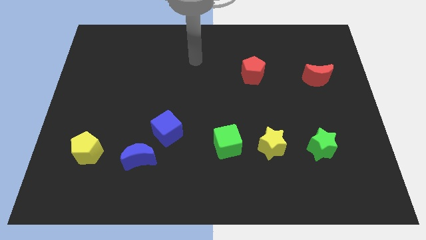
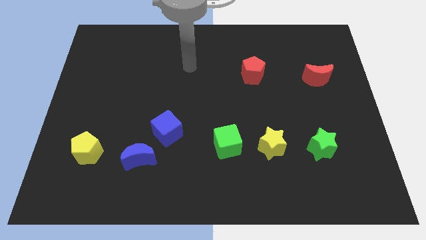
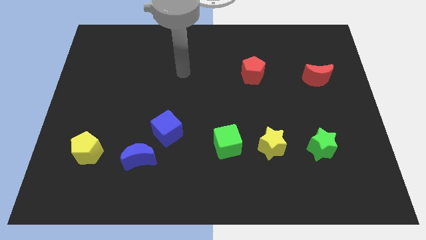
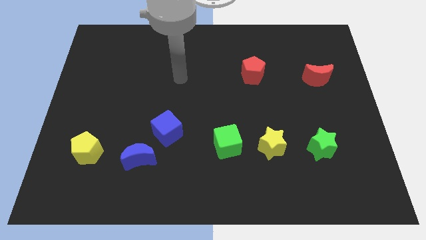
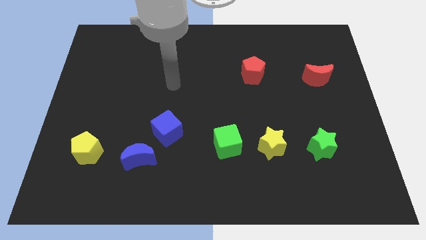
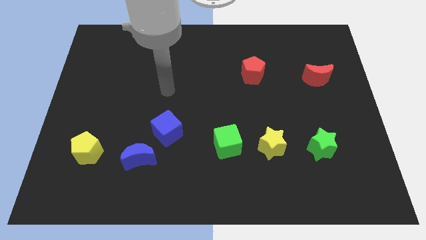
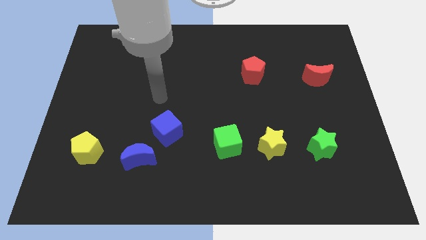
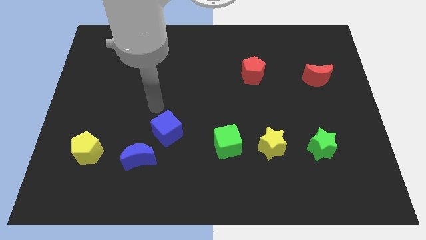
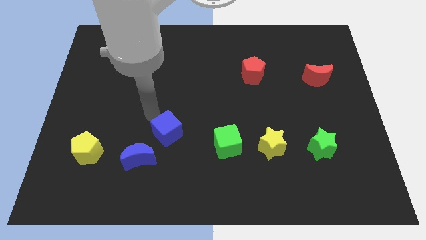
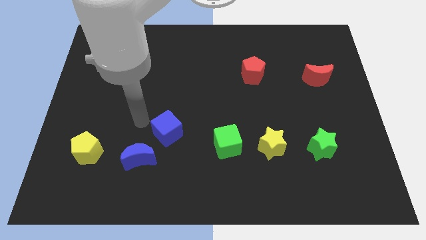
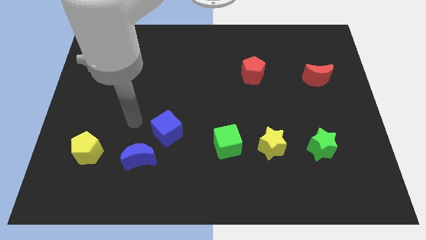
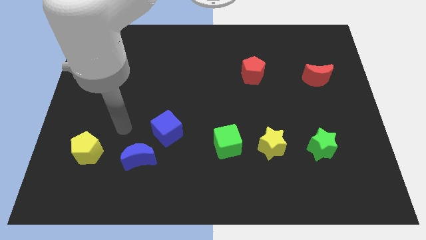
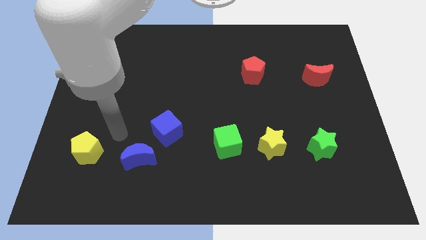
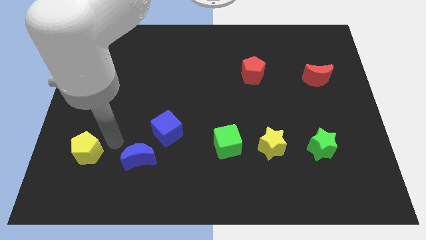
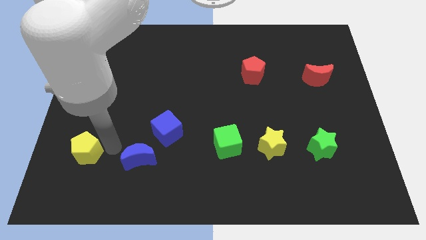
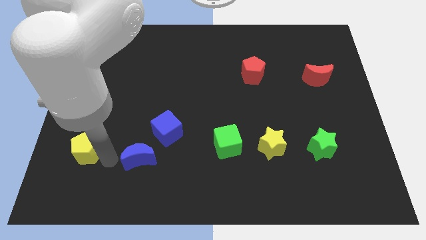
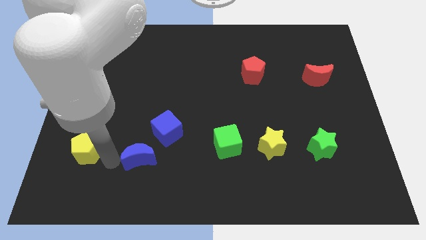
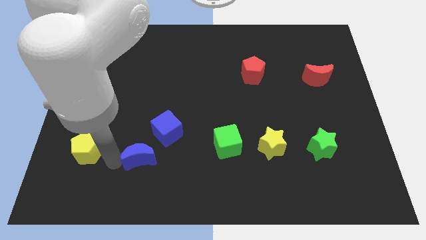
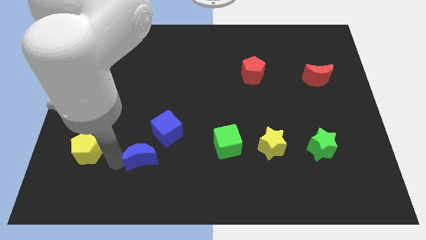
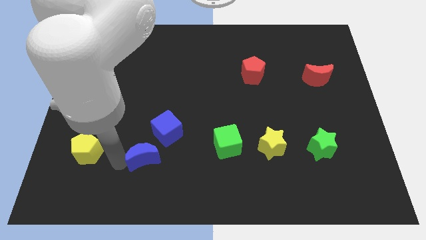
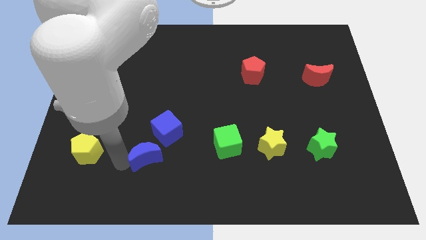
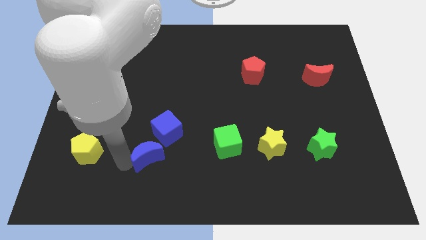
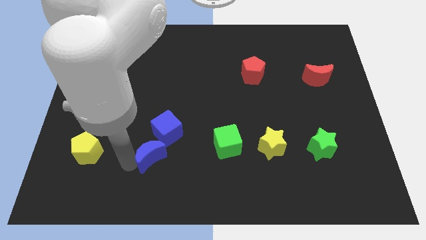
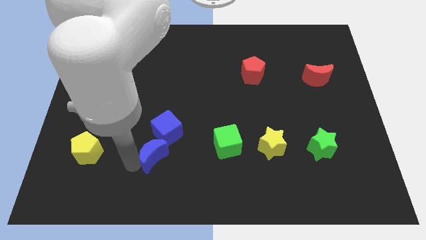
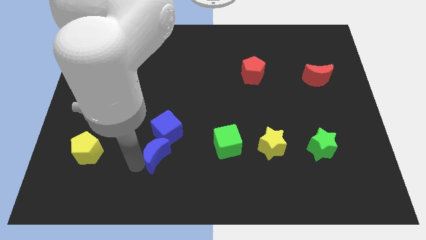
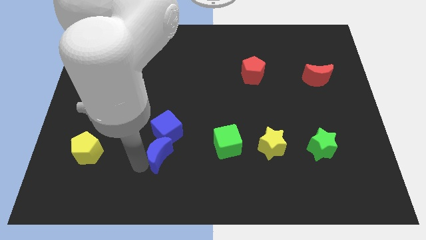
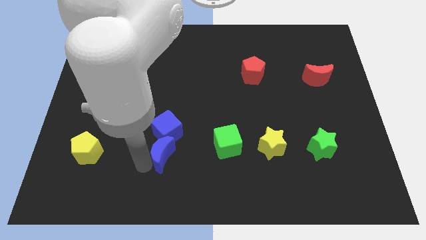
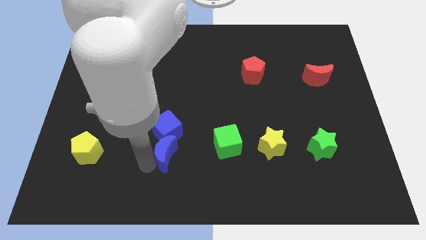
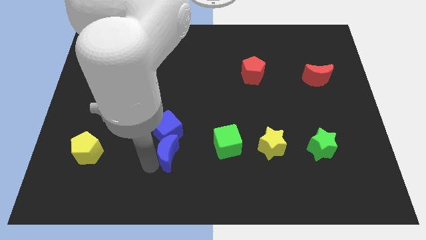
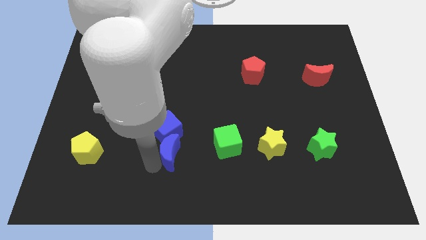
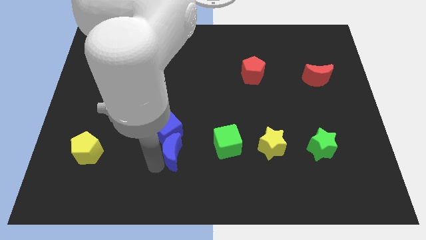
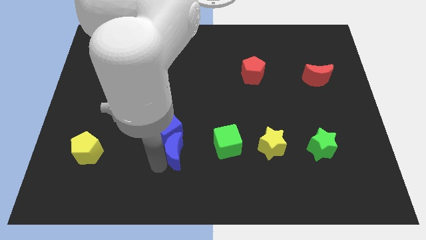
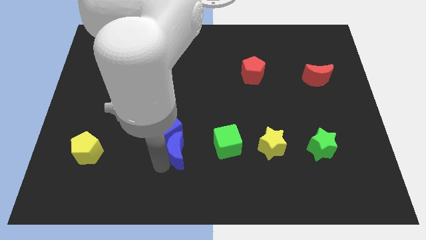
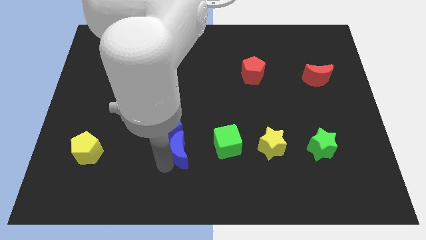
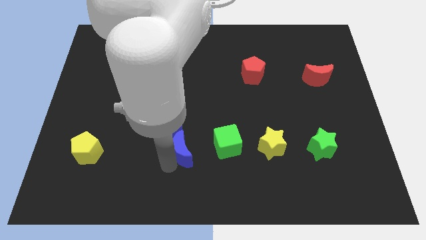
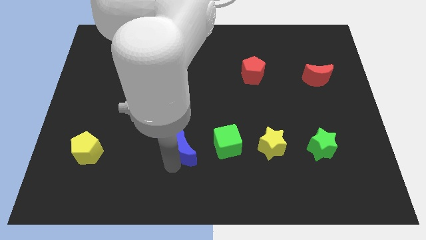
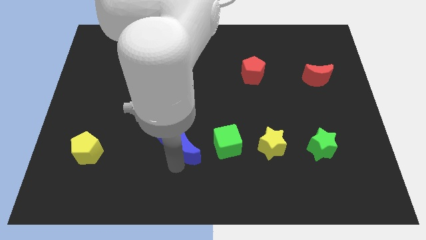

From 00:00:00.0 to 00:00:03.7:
slightly slide the blue moon diagonally upwards and right

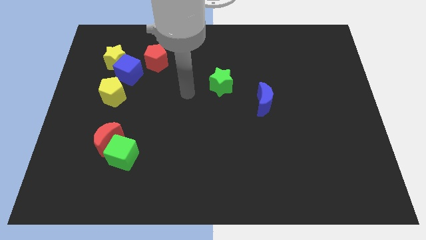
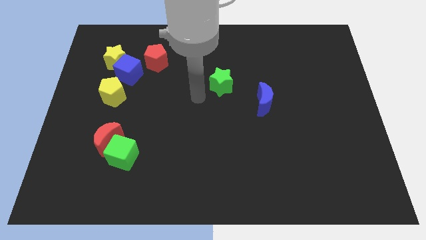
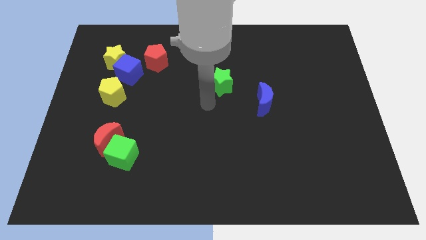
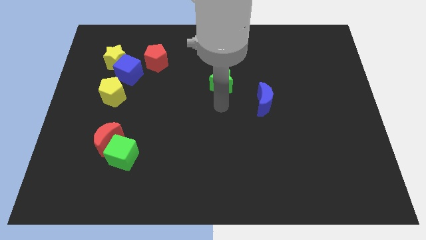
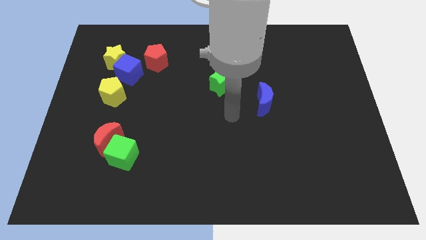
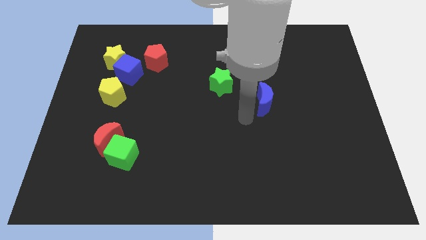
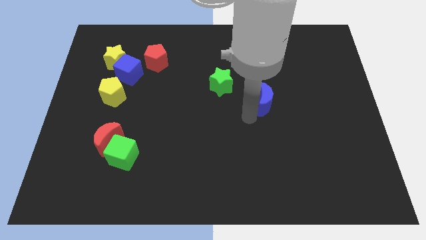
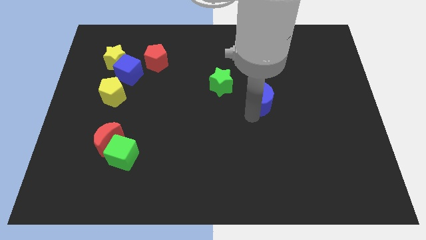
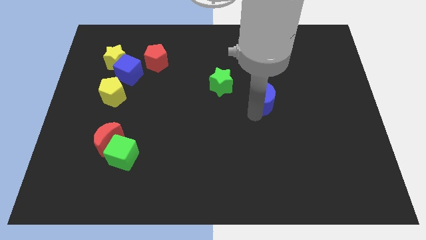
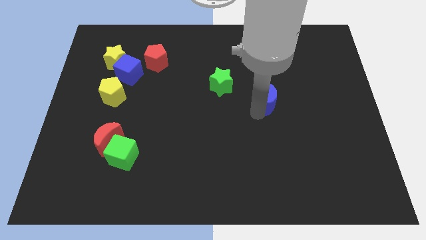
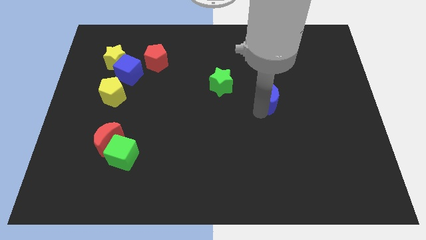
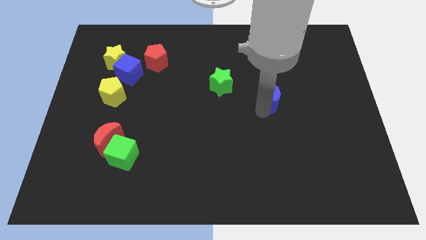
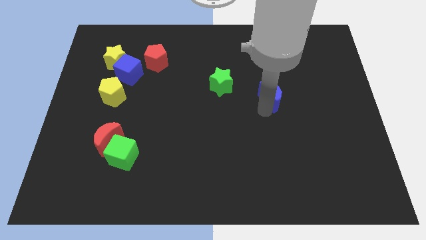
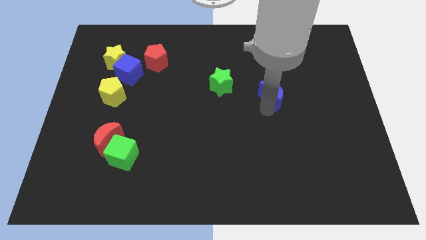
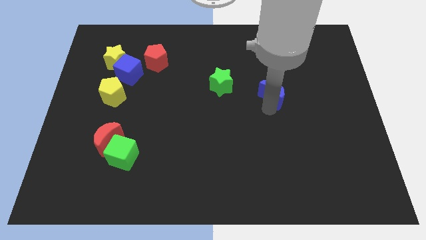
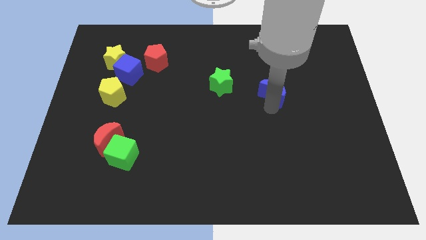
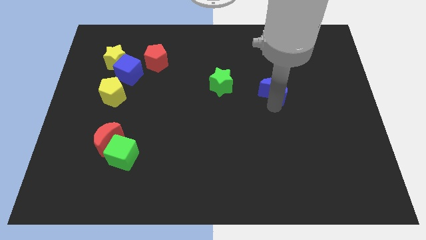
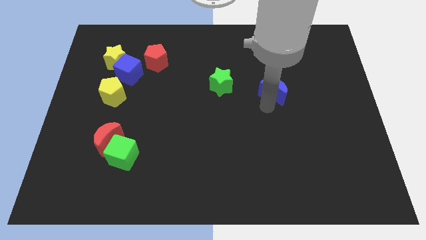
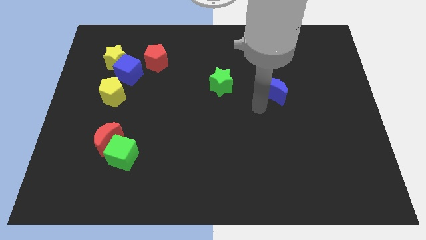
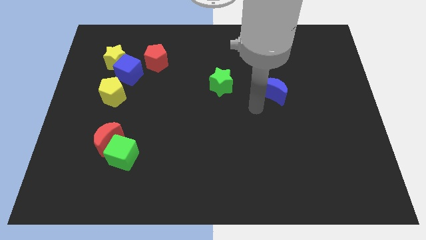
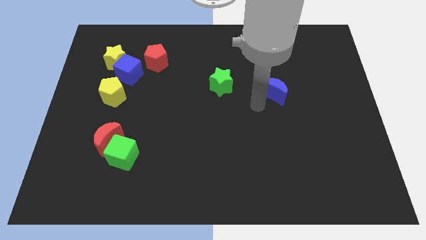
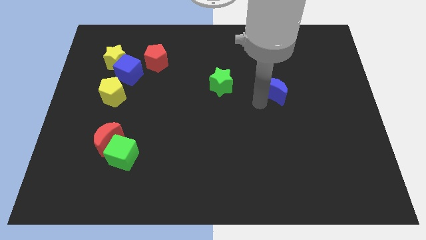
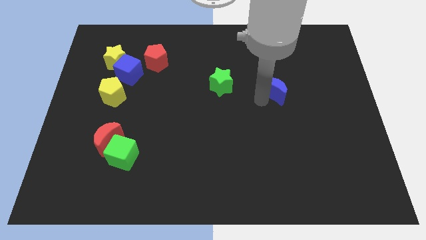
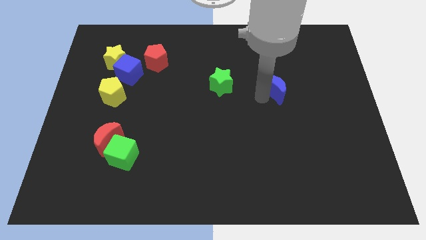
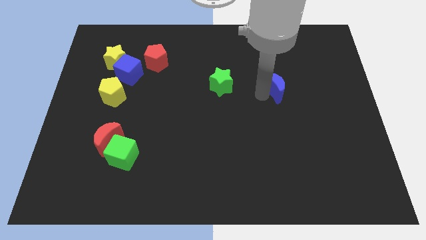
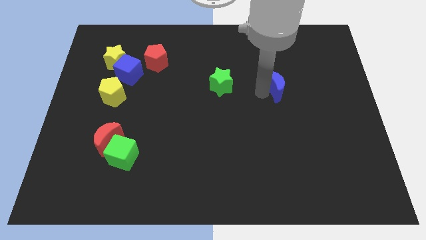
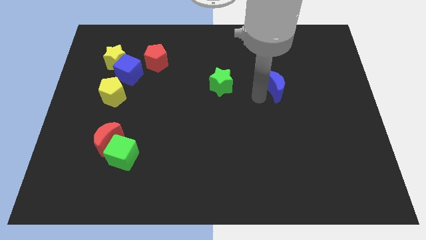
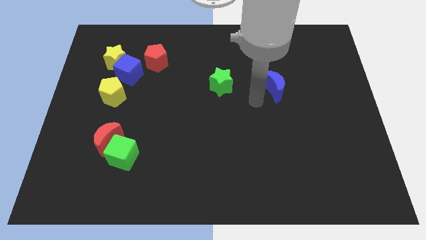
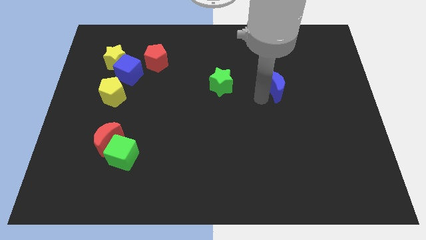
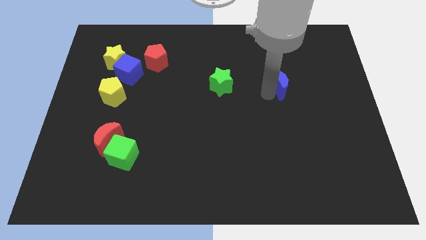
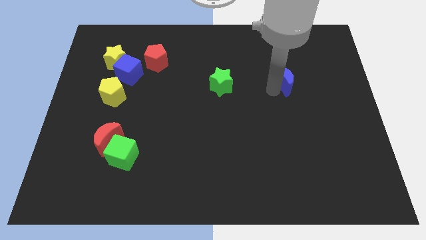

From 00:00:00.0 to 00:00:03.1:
move the blue moon upwards and to the right a bit

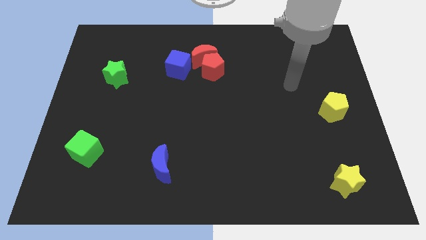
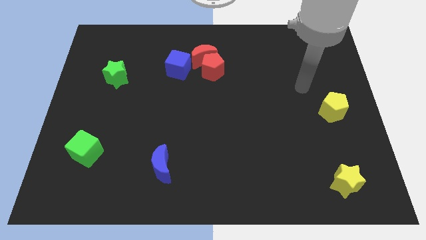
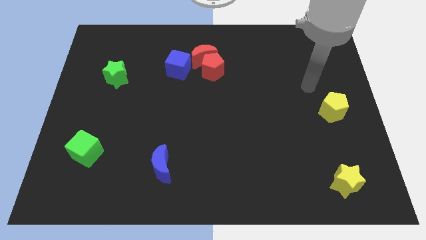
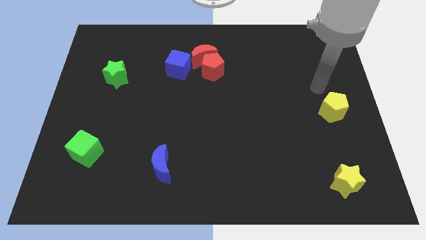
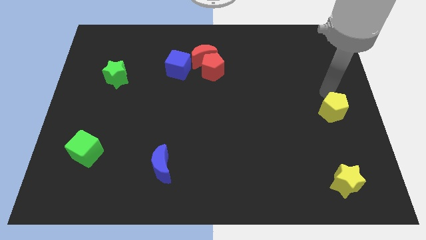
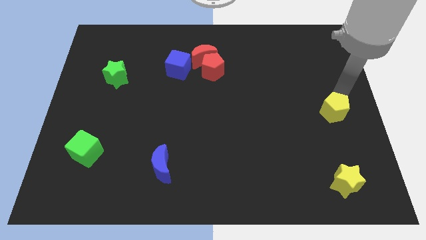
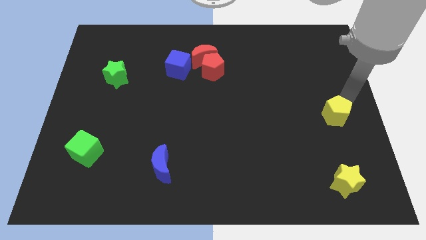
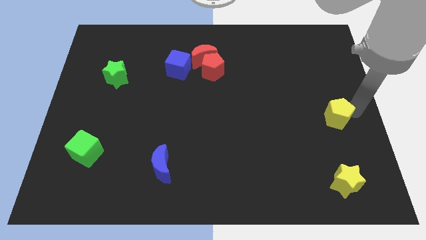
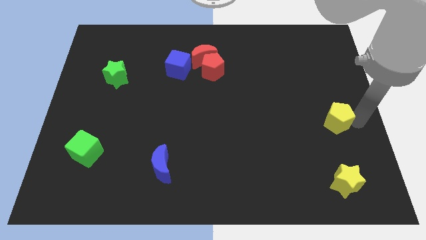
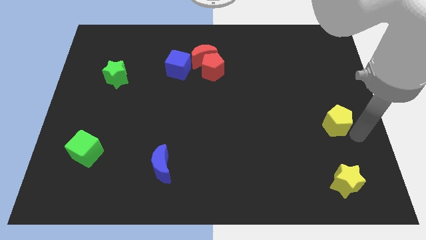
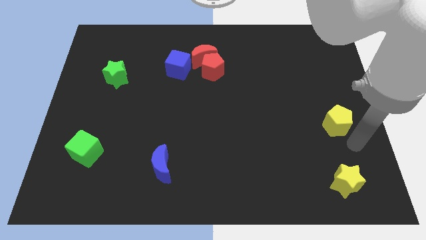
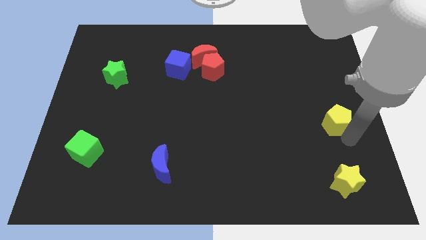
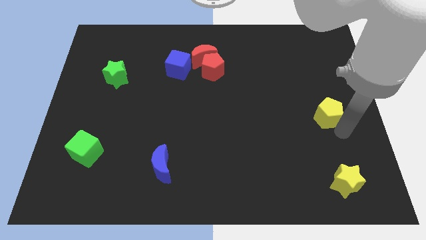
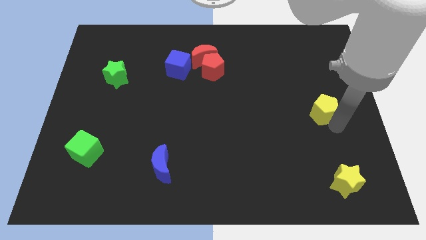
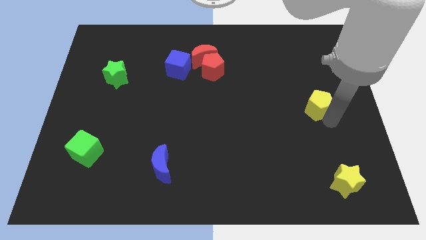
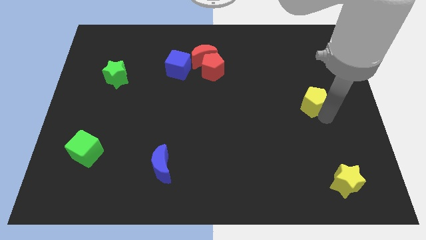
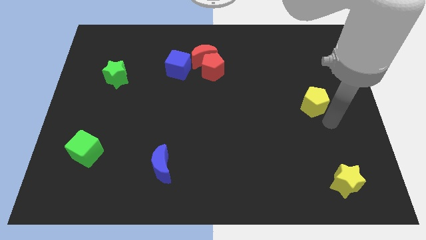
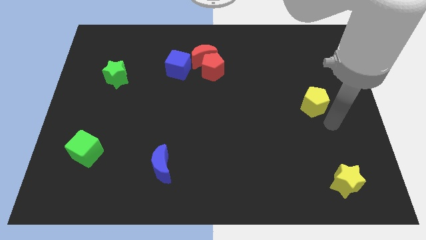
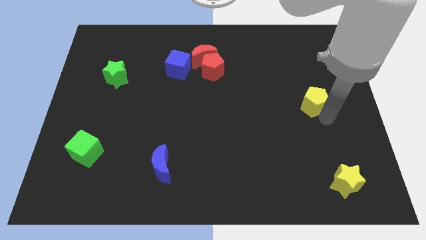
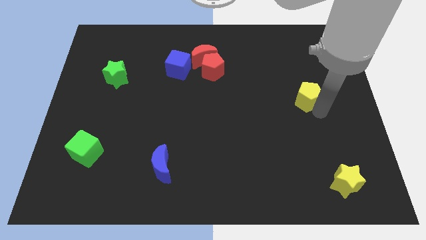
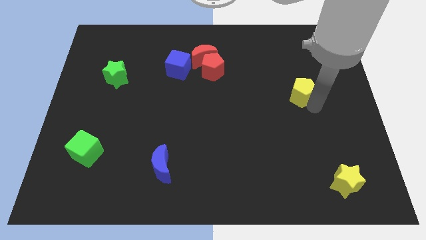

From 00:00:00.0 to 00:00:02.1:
slide the yellow pentagon a bit up and to the left
